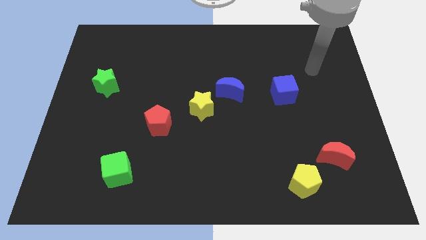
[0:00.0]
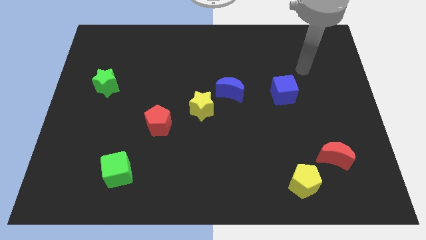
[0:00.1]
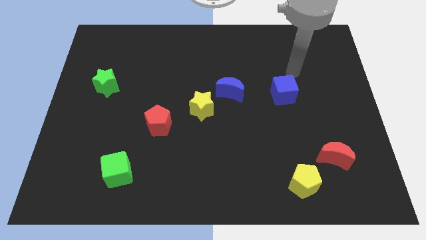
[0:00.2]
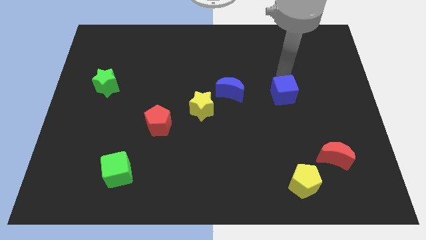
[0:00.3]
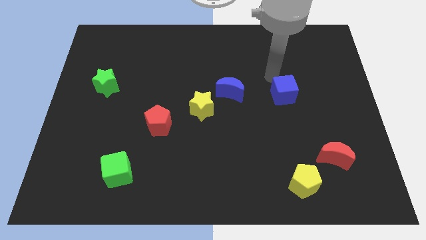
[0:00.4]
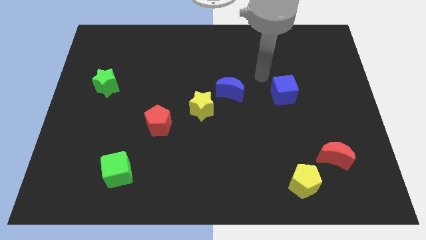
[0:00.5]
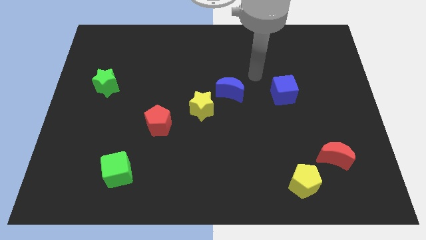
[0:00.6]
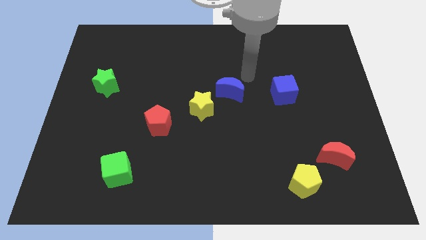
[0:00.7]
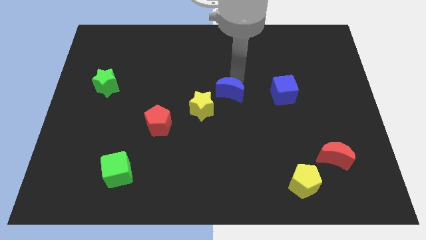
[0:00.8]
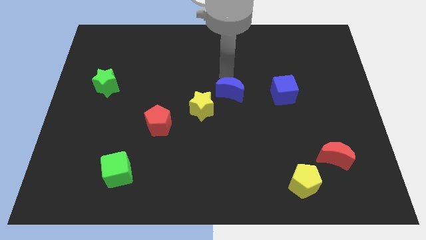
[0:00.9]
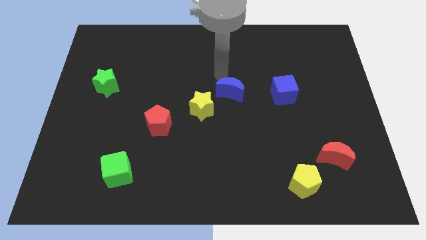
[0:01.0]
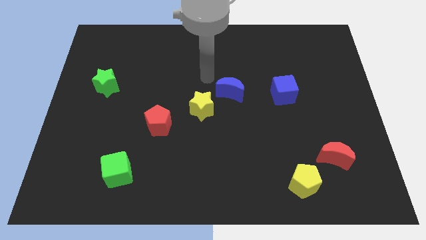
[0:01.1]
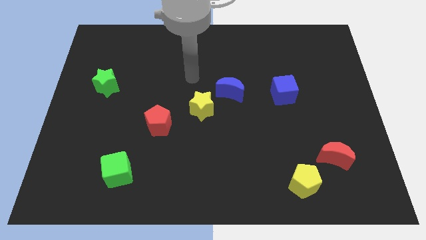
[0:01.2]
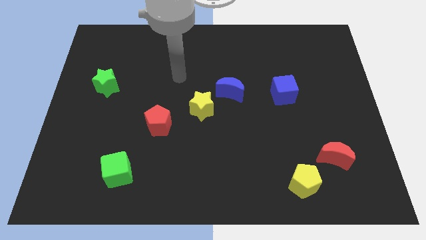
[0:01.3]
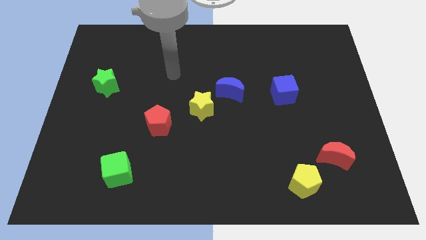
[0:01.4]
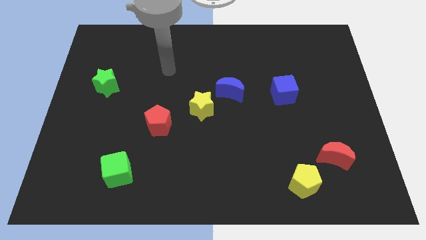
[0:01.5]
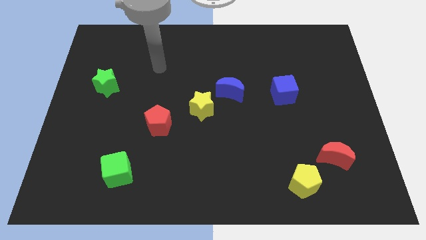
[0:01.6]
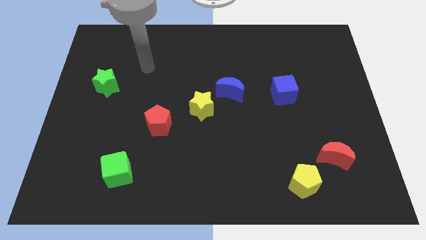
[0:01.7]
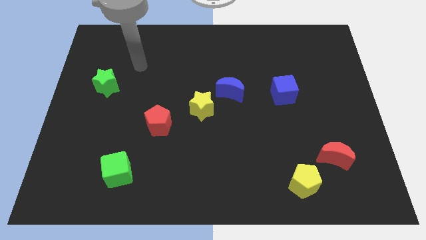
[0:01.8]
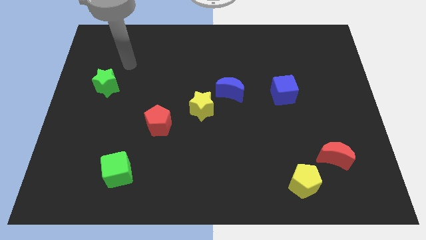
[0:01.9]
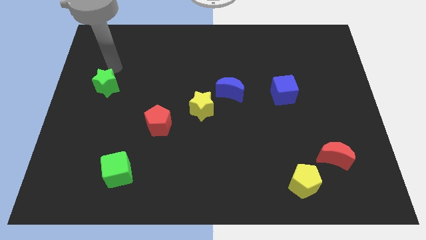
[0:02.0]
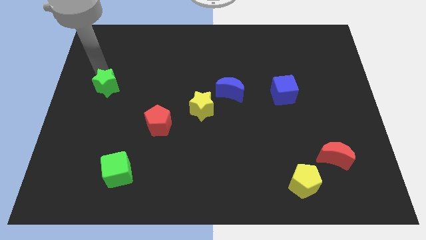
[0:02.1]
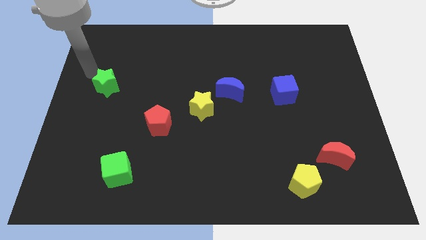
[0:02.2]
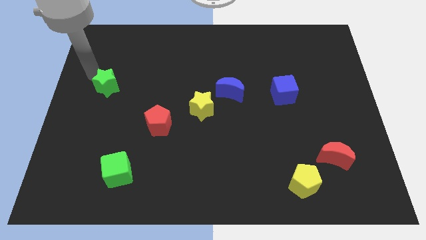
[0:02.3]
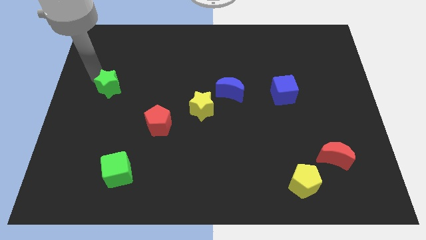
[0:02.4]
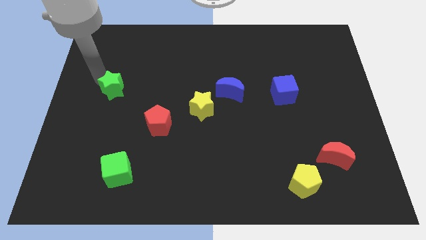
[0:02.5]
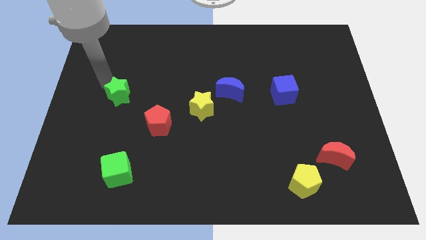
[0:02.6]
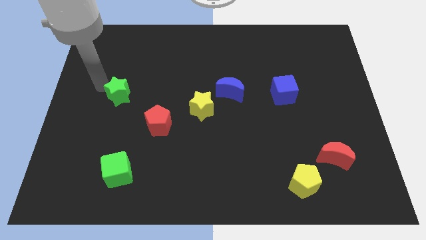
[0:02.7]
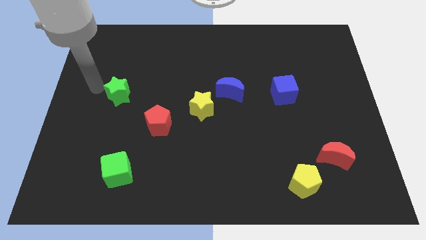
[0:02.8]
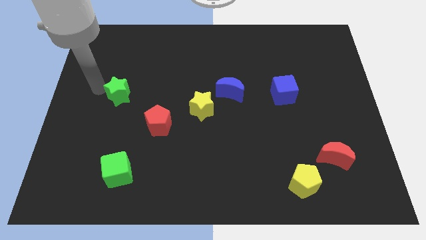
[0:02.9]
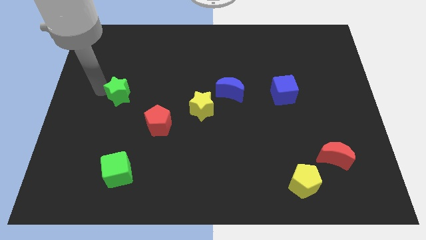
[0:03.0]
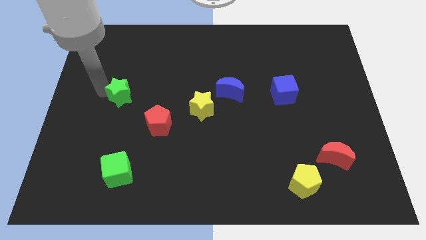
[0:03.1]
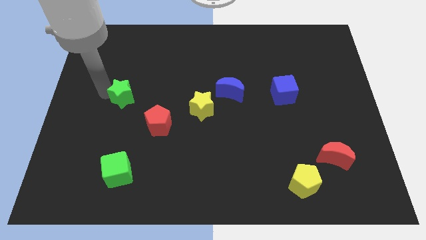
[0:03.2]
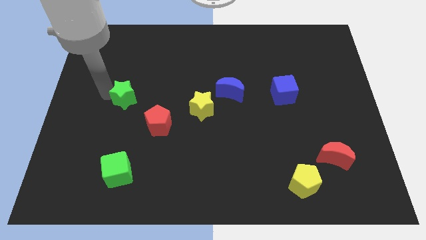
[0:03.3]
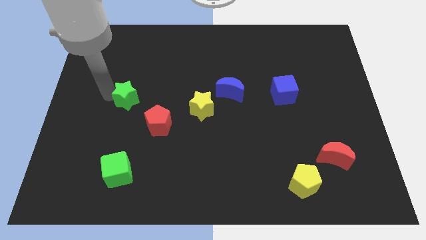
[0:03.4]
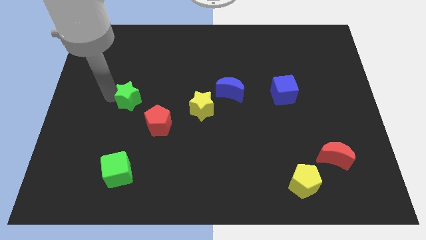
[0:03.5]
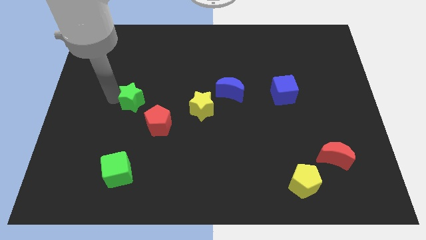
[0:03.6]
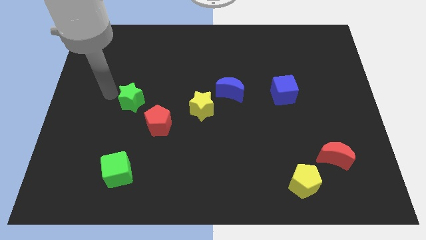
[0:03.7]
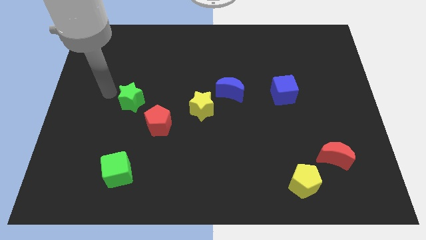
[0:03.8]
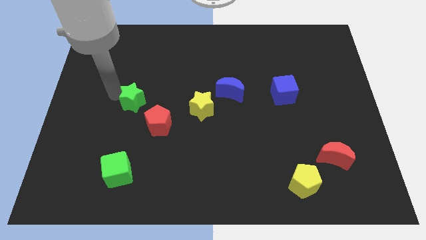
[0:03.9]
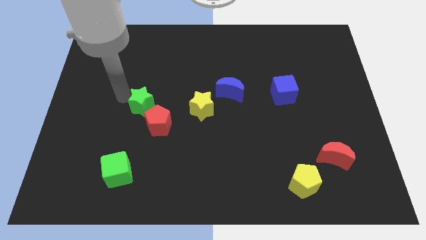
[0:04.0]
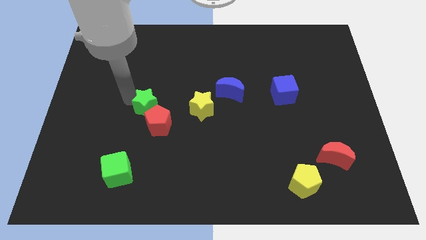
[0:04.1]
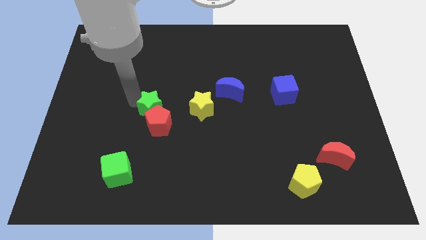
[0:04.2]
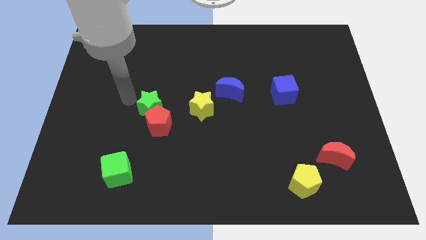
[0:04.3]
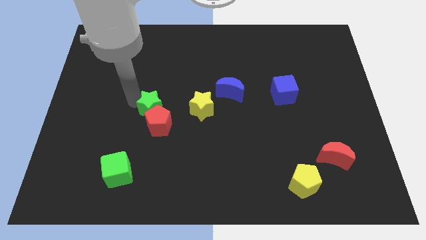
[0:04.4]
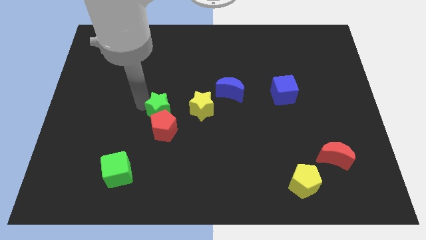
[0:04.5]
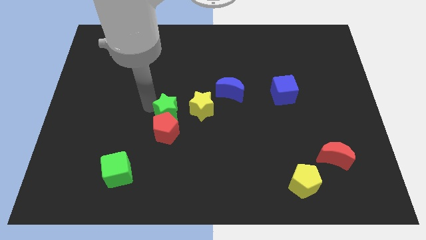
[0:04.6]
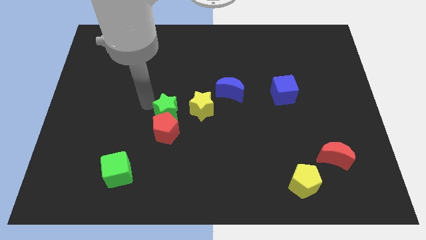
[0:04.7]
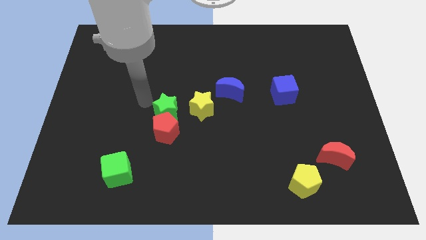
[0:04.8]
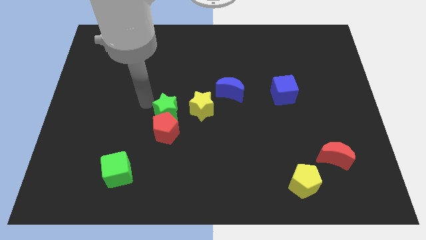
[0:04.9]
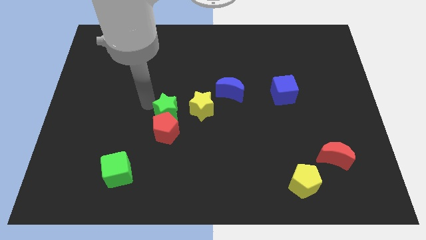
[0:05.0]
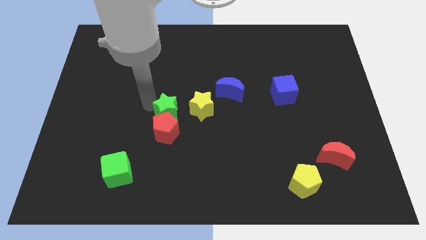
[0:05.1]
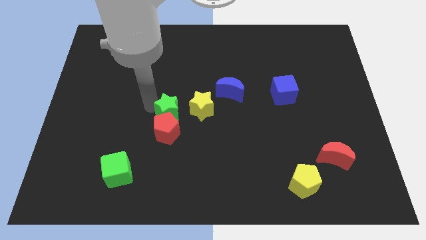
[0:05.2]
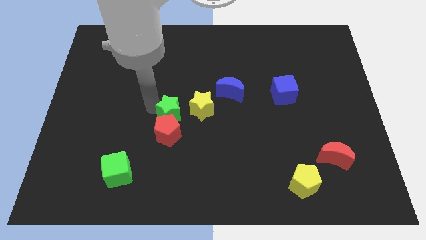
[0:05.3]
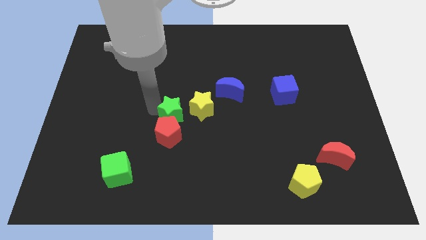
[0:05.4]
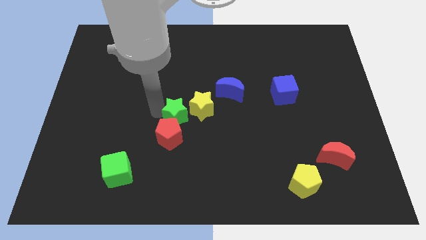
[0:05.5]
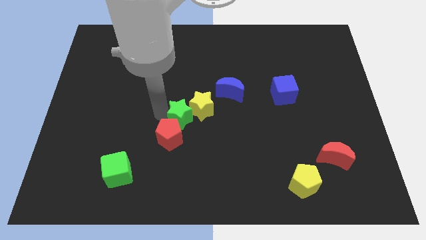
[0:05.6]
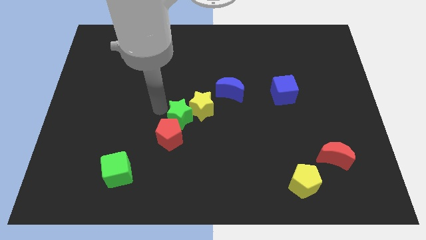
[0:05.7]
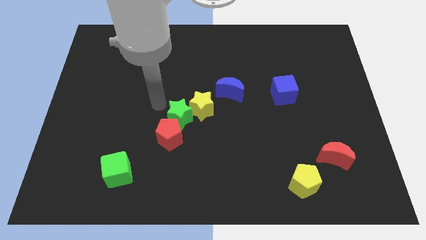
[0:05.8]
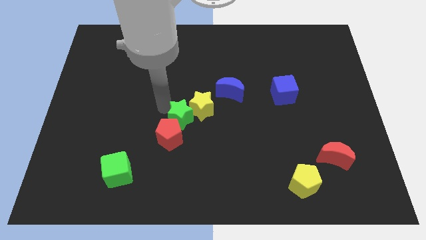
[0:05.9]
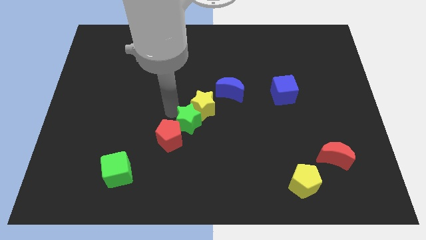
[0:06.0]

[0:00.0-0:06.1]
put the green star right of the red pentagon
